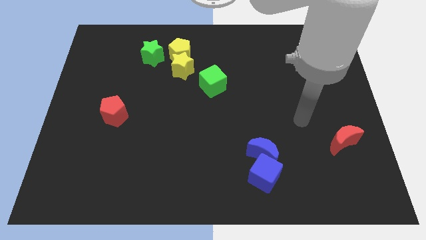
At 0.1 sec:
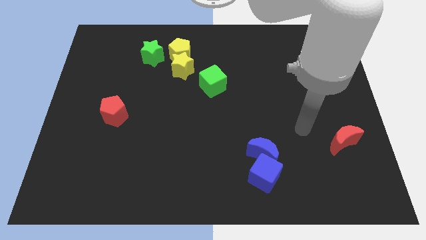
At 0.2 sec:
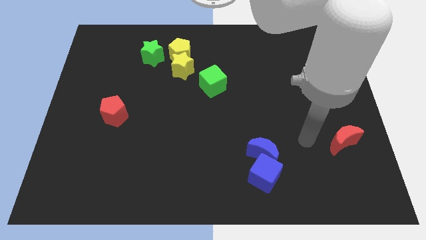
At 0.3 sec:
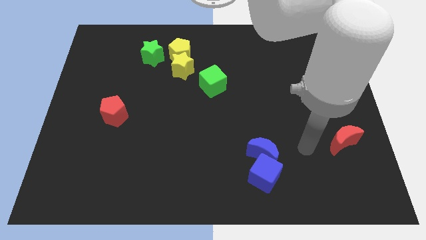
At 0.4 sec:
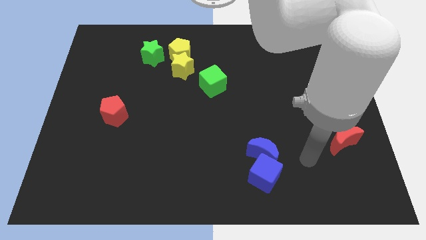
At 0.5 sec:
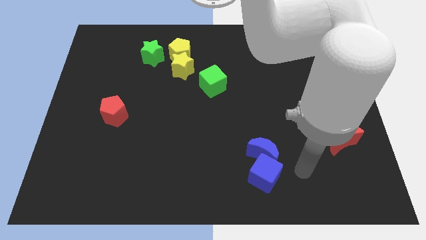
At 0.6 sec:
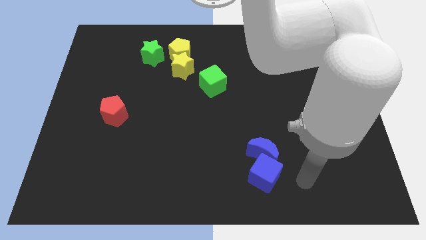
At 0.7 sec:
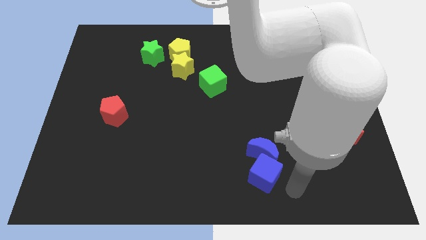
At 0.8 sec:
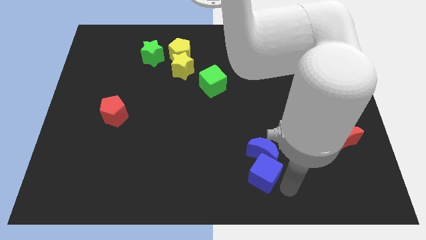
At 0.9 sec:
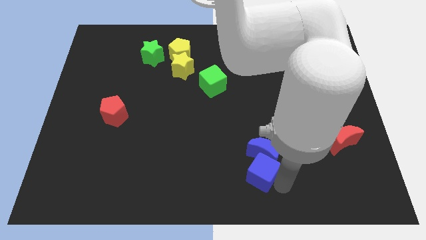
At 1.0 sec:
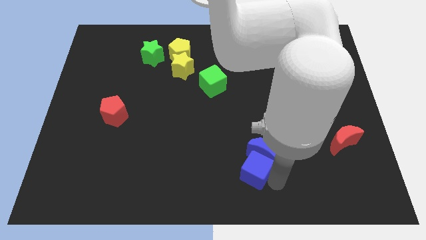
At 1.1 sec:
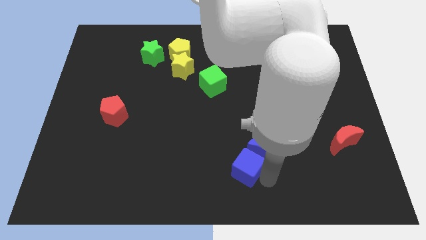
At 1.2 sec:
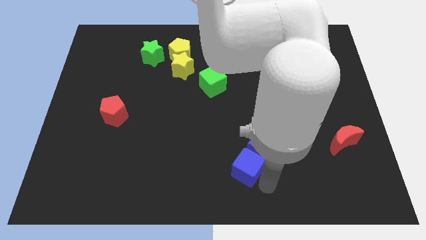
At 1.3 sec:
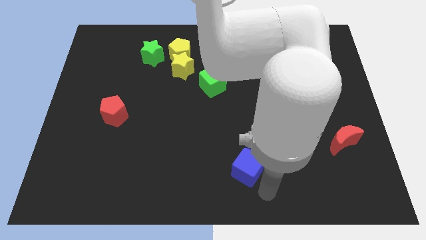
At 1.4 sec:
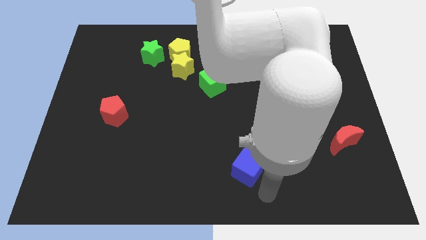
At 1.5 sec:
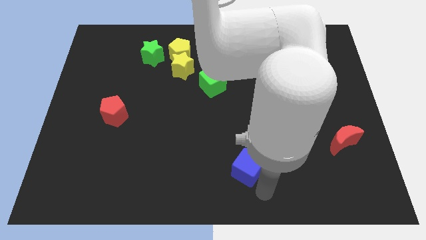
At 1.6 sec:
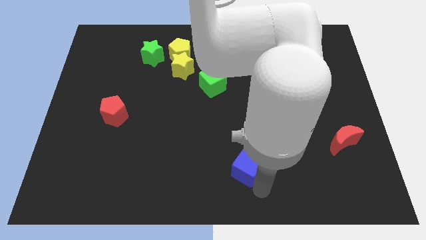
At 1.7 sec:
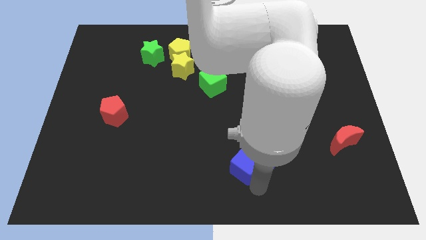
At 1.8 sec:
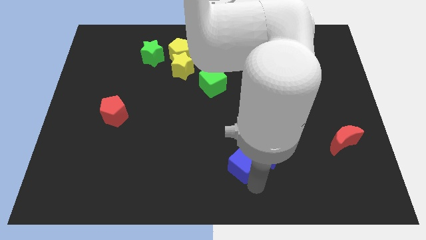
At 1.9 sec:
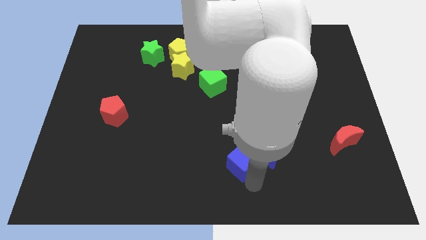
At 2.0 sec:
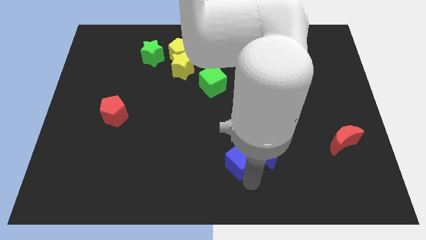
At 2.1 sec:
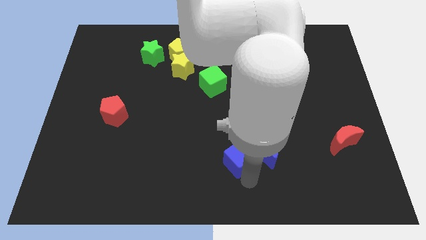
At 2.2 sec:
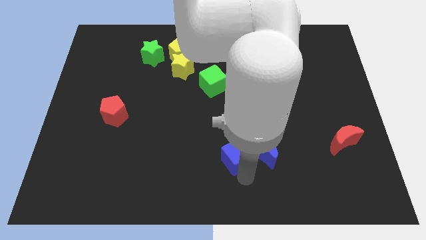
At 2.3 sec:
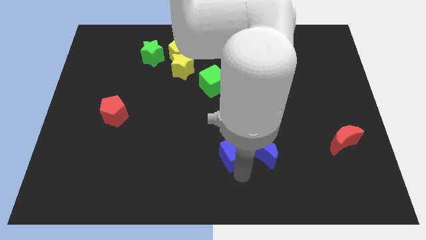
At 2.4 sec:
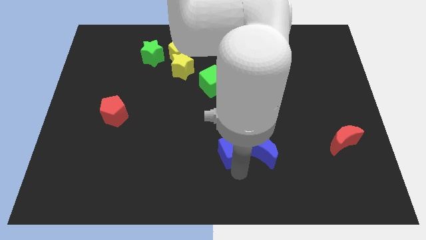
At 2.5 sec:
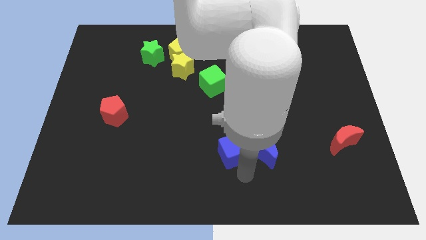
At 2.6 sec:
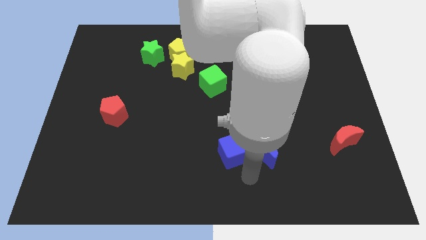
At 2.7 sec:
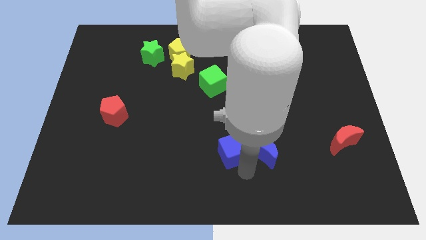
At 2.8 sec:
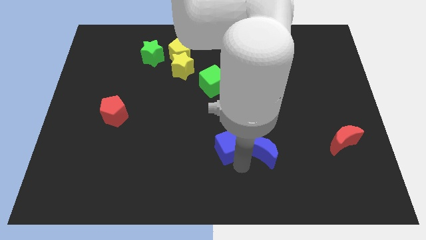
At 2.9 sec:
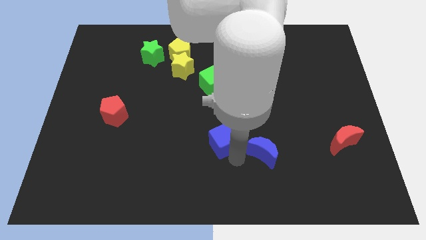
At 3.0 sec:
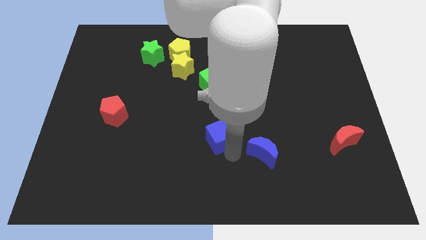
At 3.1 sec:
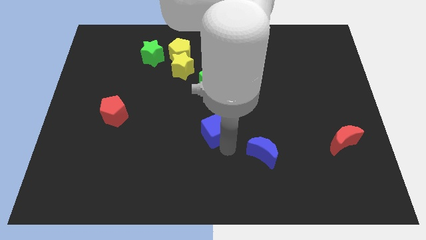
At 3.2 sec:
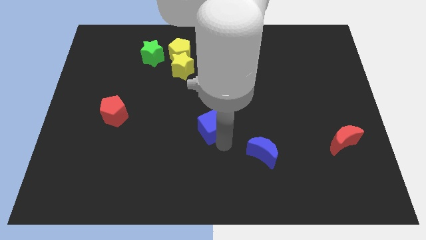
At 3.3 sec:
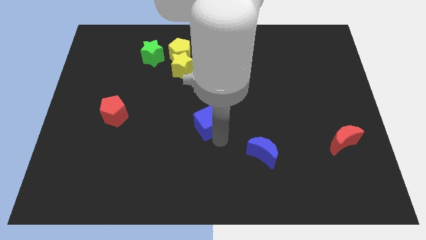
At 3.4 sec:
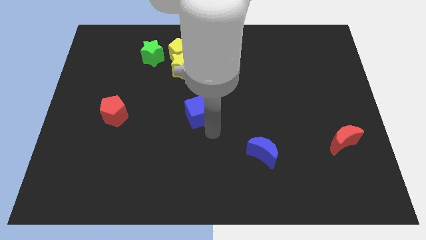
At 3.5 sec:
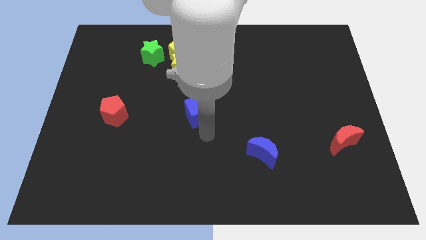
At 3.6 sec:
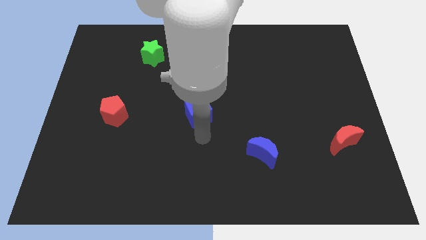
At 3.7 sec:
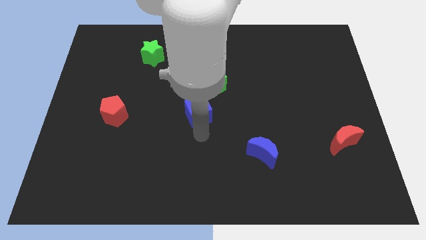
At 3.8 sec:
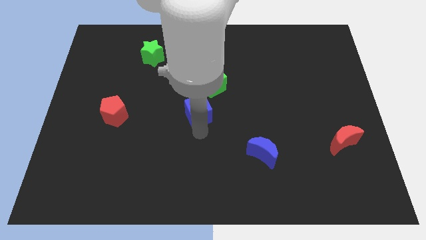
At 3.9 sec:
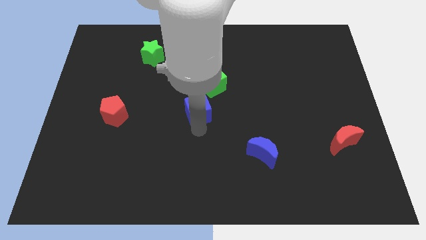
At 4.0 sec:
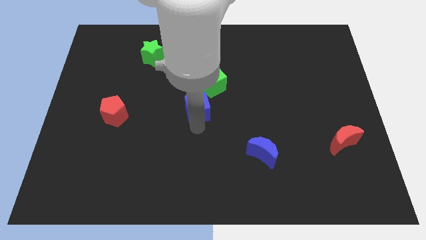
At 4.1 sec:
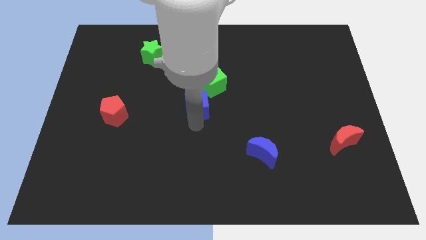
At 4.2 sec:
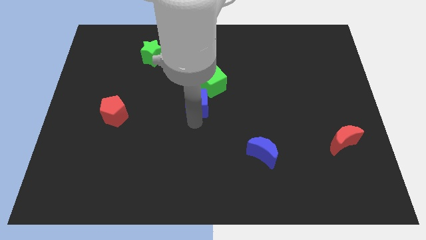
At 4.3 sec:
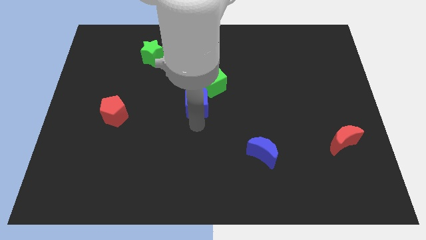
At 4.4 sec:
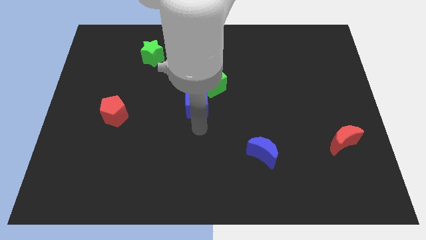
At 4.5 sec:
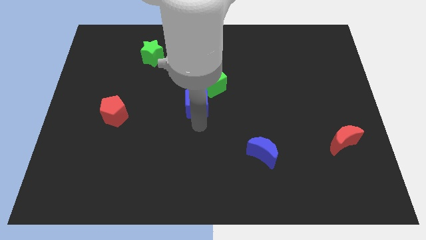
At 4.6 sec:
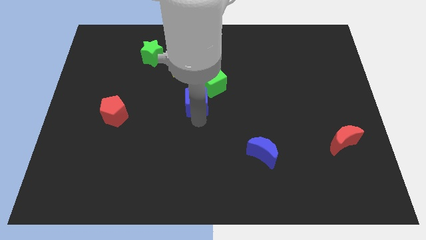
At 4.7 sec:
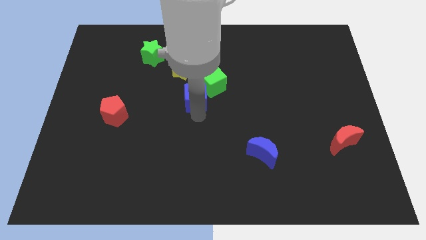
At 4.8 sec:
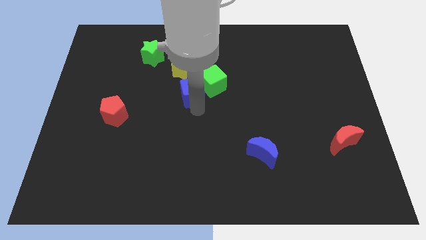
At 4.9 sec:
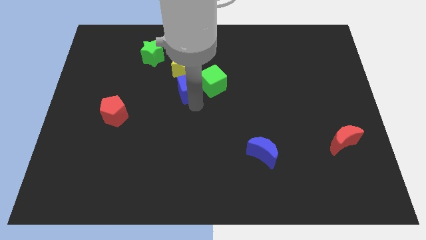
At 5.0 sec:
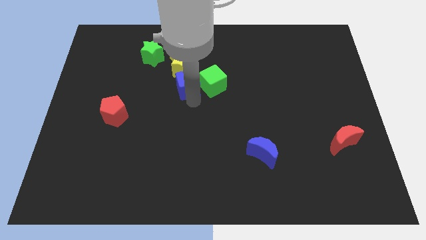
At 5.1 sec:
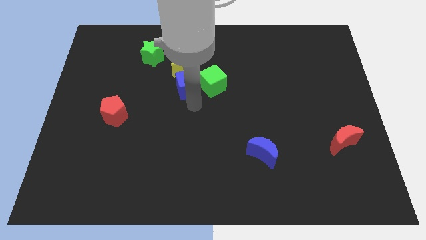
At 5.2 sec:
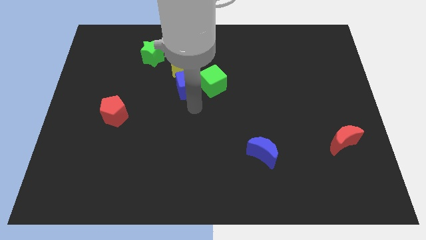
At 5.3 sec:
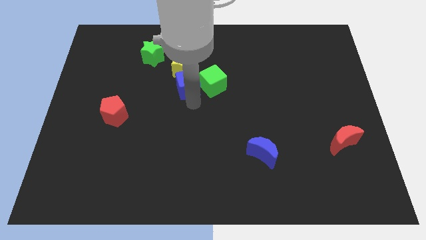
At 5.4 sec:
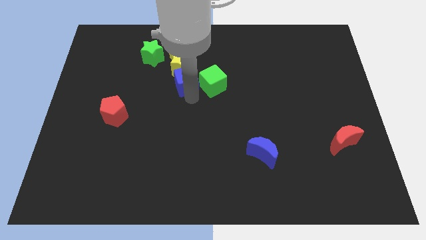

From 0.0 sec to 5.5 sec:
push the blue cube close to the yellow star

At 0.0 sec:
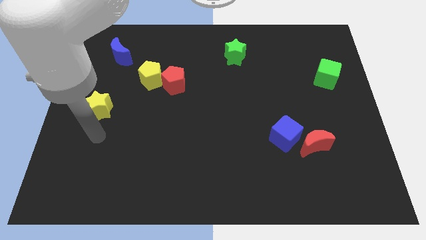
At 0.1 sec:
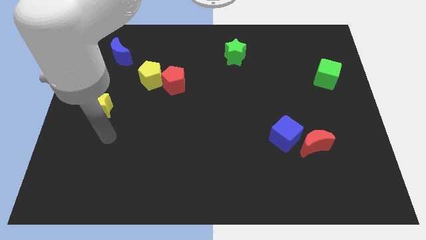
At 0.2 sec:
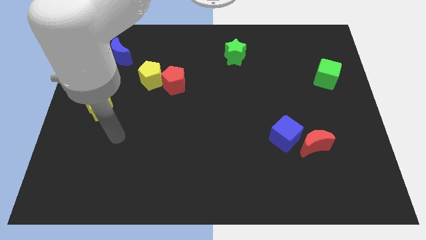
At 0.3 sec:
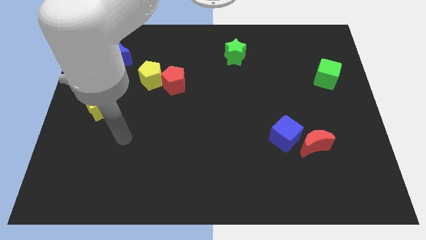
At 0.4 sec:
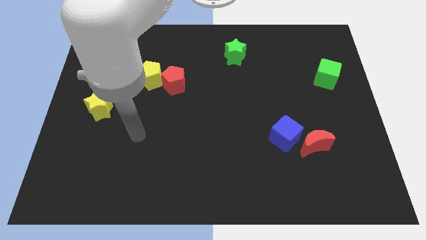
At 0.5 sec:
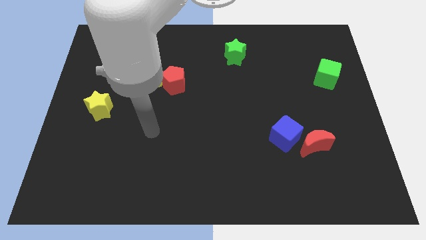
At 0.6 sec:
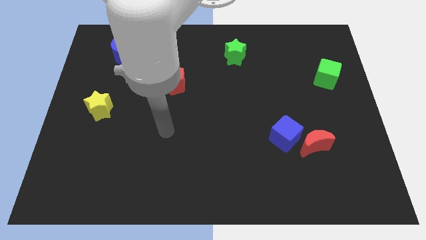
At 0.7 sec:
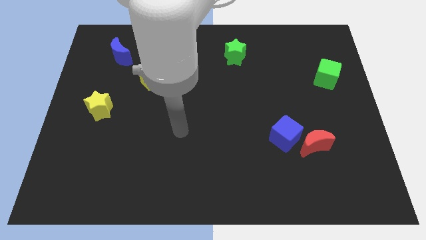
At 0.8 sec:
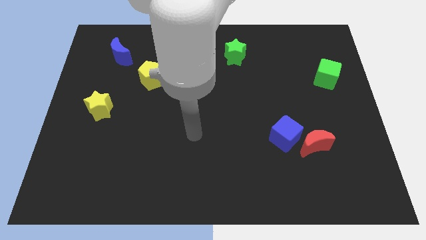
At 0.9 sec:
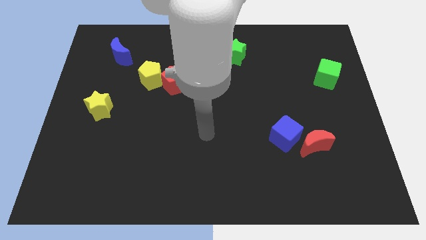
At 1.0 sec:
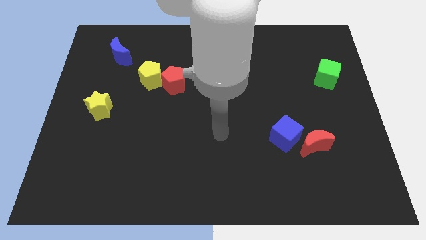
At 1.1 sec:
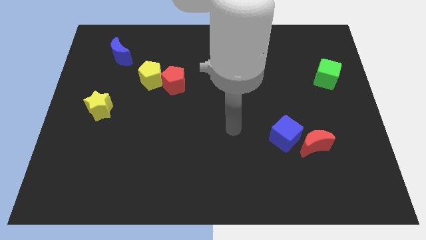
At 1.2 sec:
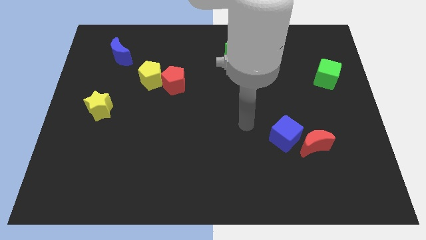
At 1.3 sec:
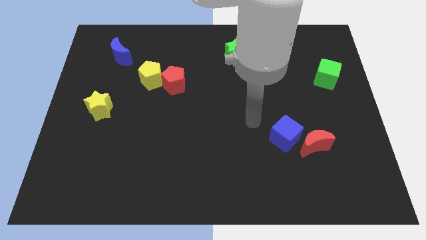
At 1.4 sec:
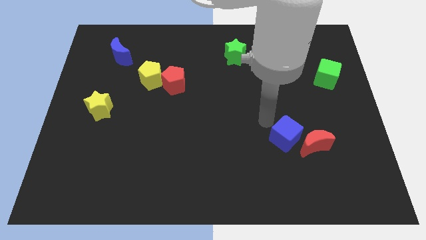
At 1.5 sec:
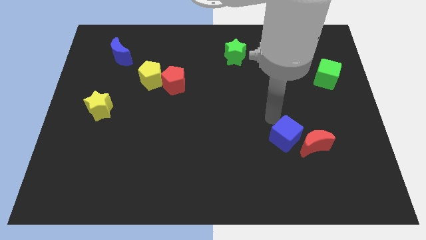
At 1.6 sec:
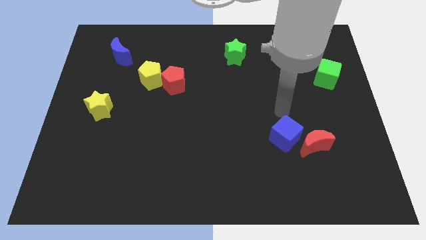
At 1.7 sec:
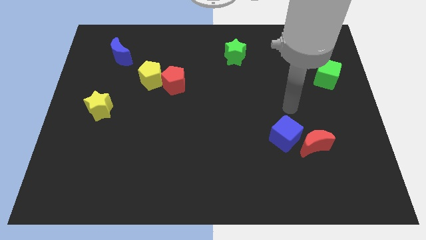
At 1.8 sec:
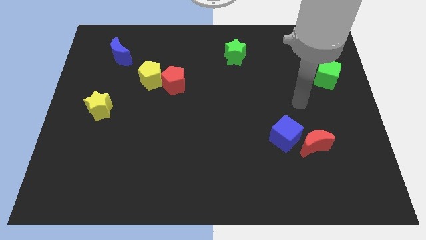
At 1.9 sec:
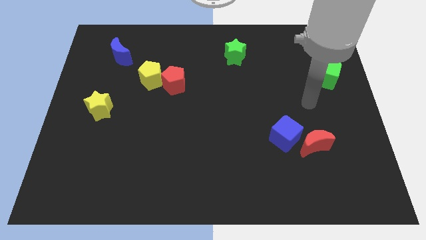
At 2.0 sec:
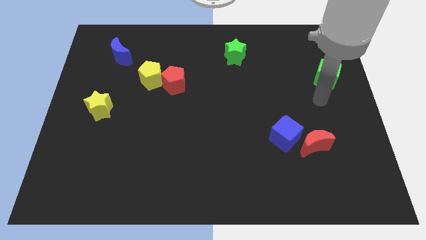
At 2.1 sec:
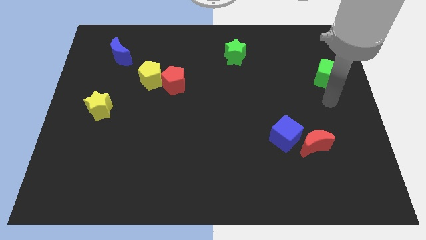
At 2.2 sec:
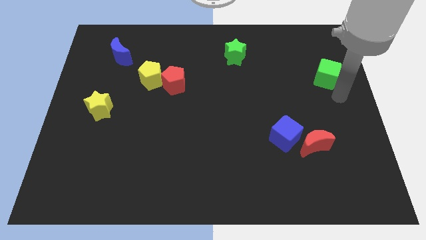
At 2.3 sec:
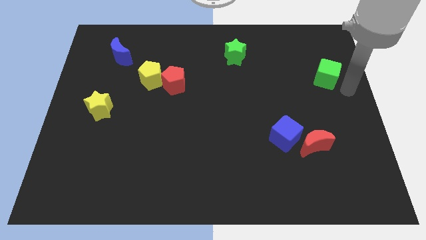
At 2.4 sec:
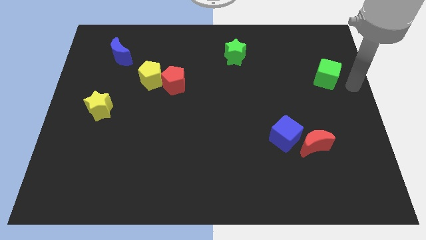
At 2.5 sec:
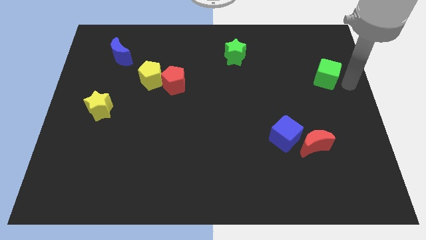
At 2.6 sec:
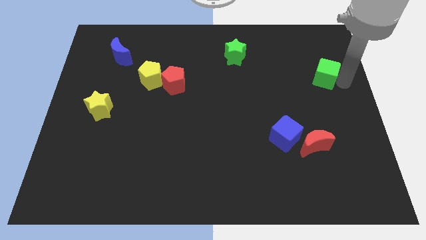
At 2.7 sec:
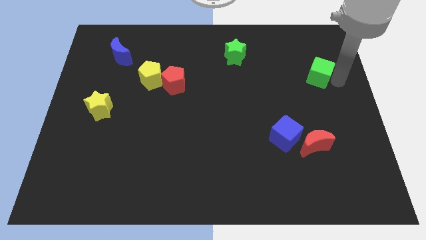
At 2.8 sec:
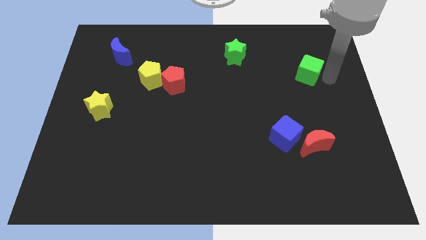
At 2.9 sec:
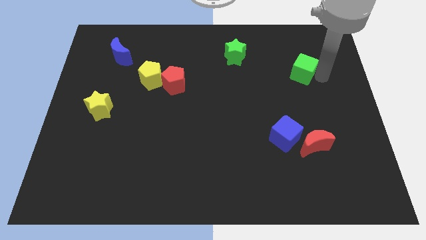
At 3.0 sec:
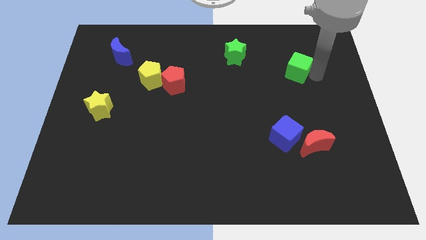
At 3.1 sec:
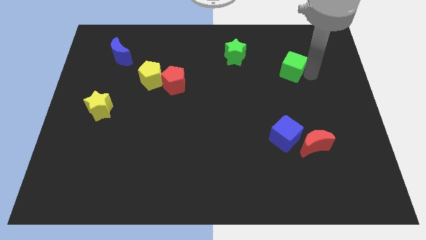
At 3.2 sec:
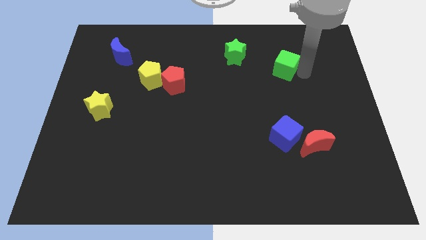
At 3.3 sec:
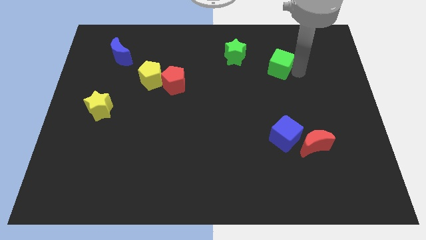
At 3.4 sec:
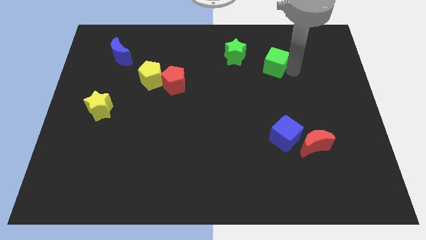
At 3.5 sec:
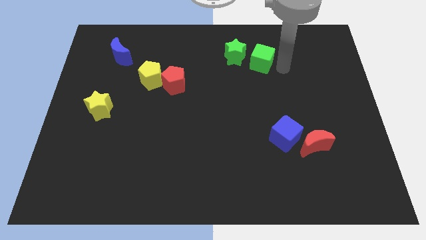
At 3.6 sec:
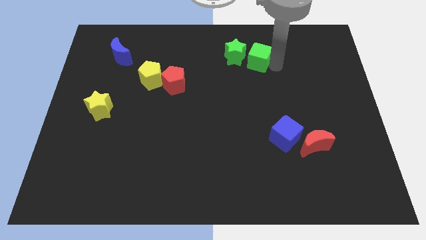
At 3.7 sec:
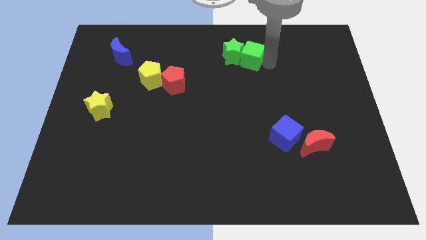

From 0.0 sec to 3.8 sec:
push the green cube towards the green star
